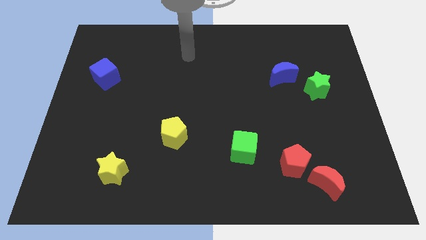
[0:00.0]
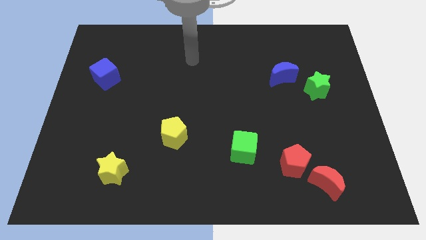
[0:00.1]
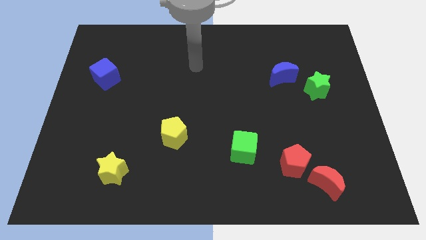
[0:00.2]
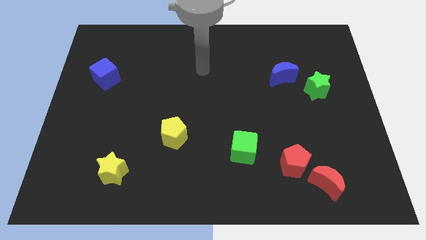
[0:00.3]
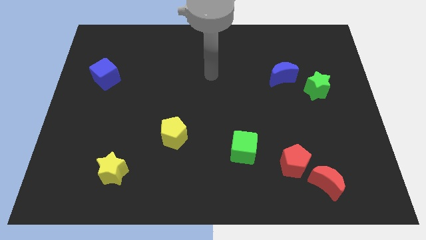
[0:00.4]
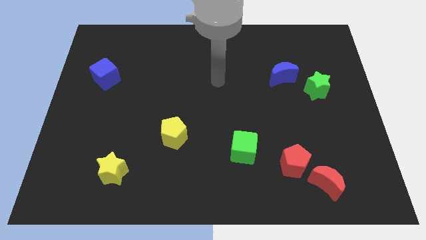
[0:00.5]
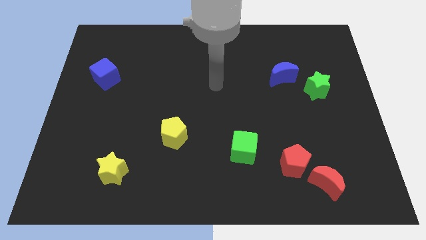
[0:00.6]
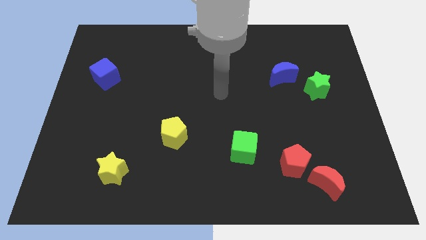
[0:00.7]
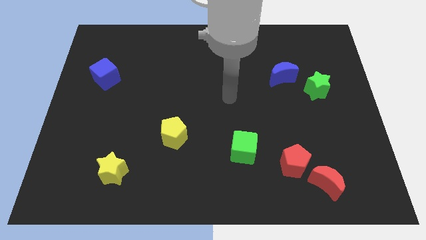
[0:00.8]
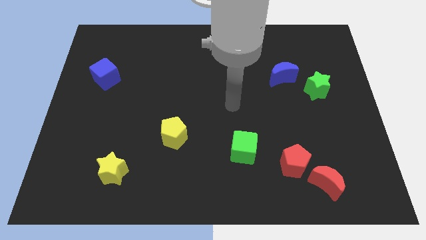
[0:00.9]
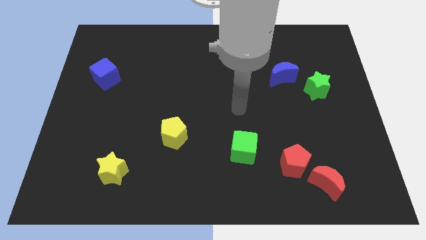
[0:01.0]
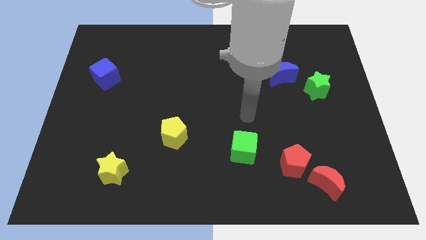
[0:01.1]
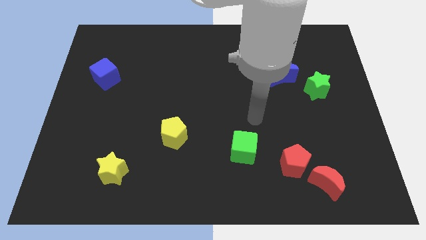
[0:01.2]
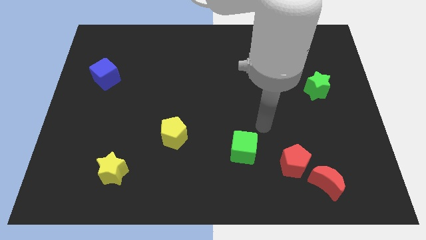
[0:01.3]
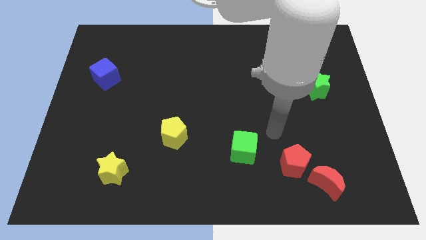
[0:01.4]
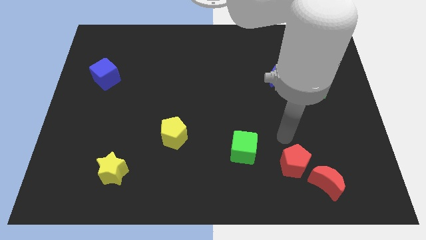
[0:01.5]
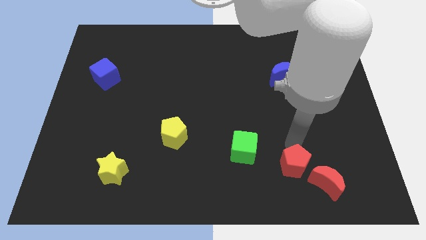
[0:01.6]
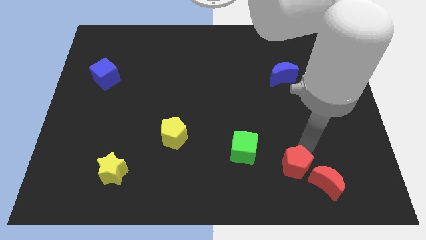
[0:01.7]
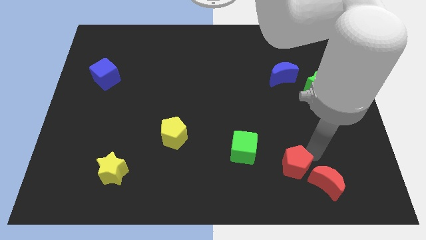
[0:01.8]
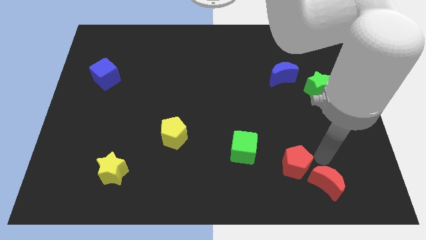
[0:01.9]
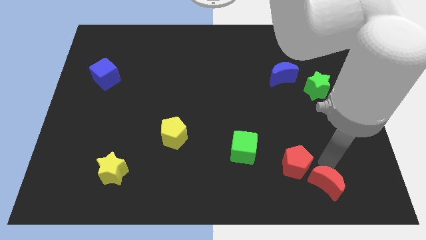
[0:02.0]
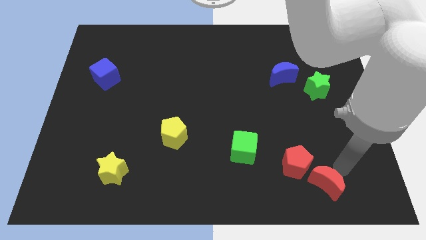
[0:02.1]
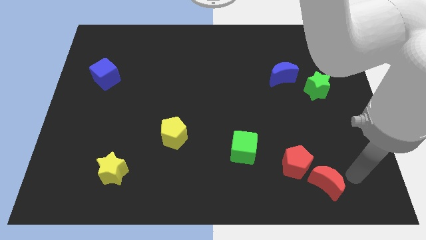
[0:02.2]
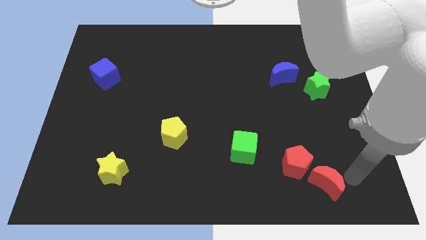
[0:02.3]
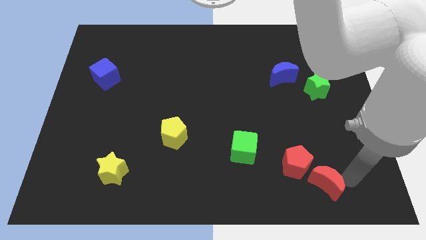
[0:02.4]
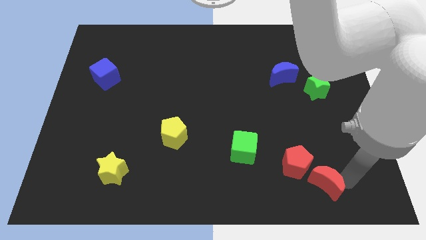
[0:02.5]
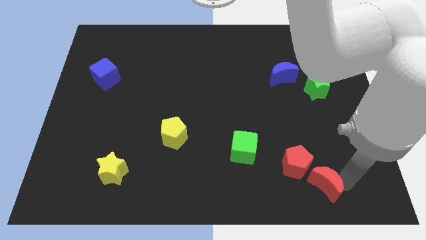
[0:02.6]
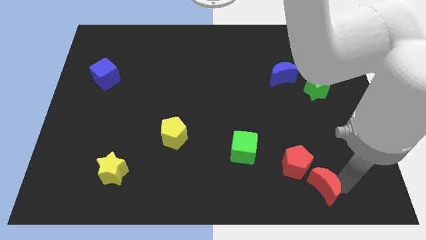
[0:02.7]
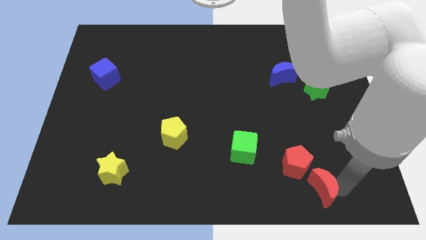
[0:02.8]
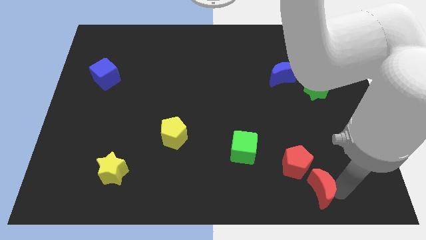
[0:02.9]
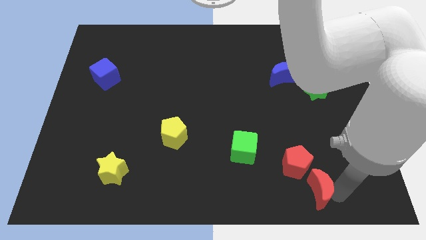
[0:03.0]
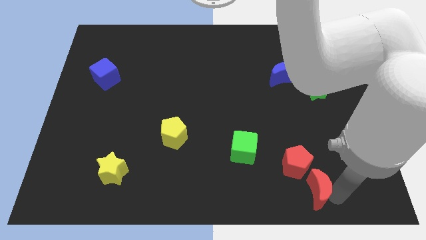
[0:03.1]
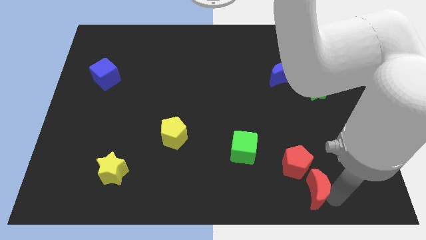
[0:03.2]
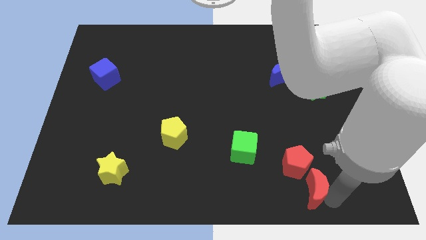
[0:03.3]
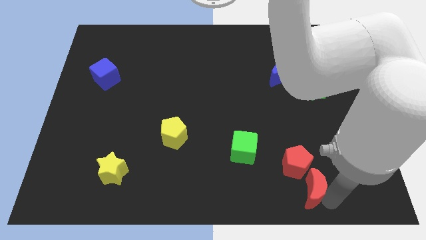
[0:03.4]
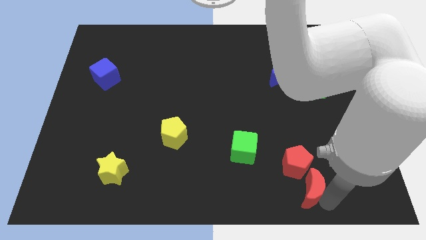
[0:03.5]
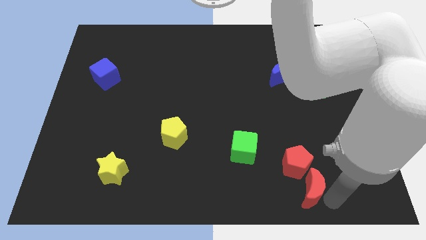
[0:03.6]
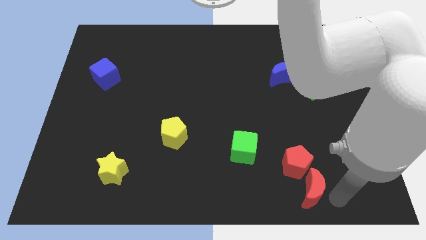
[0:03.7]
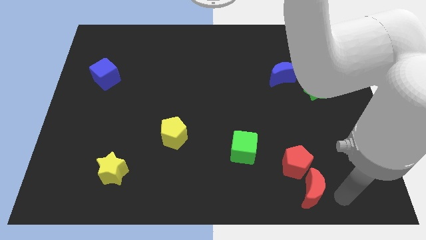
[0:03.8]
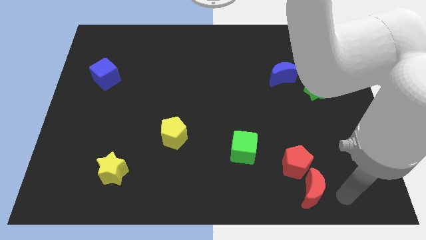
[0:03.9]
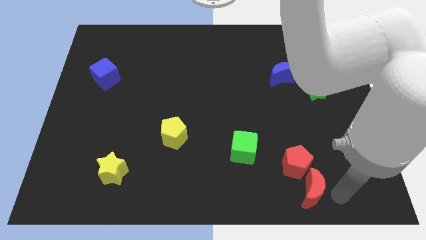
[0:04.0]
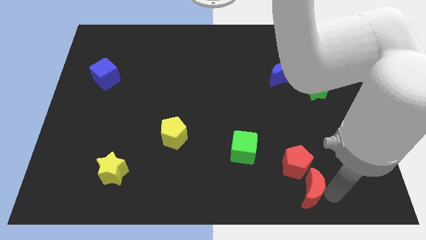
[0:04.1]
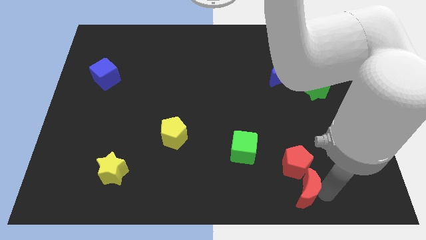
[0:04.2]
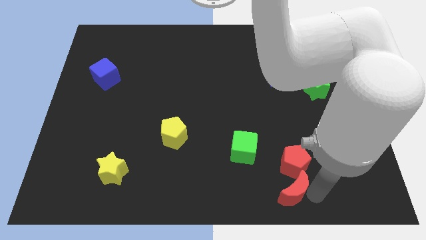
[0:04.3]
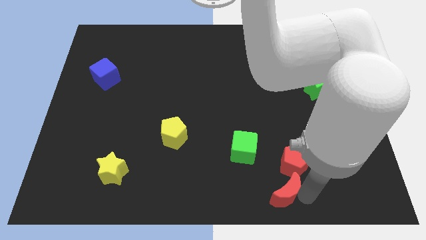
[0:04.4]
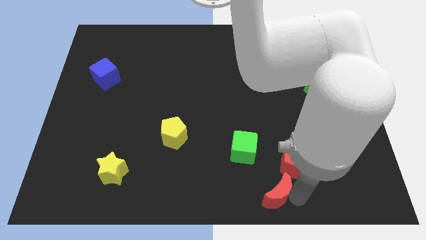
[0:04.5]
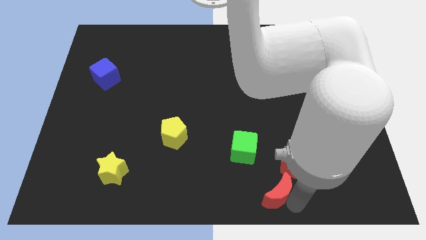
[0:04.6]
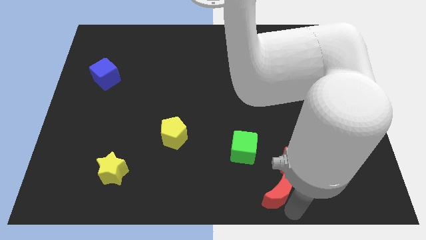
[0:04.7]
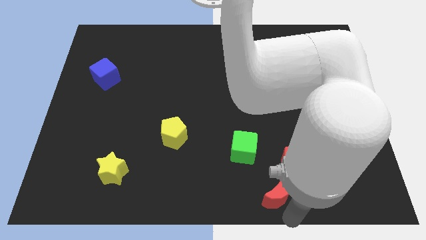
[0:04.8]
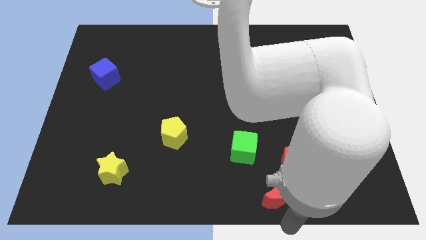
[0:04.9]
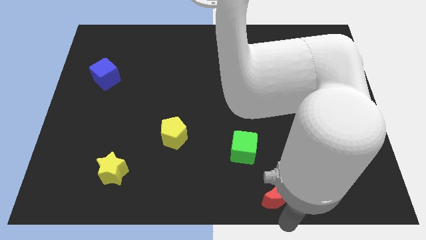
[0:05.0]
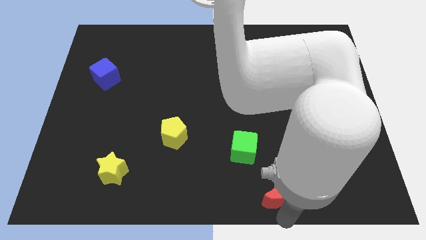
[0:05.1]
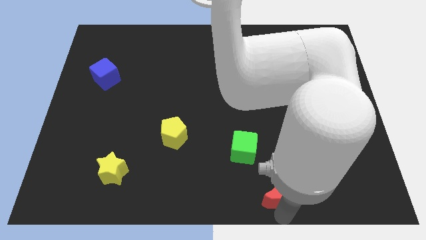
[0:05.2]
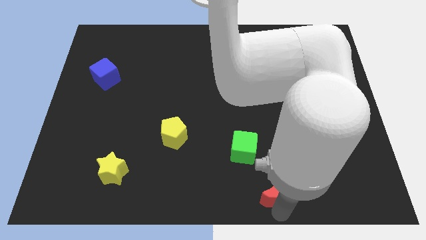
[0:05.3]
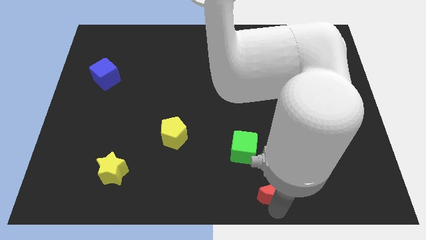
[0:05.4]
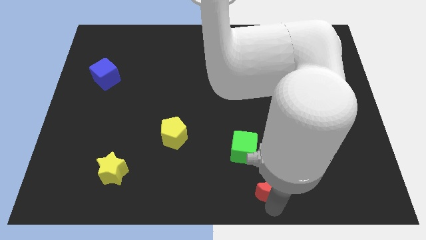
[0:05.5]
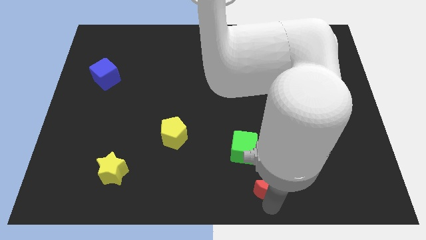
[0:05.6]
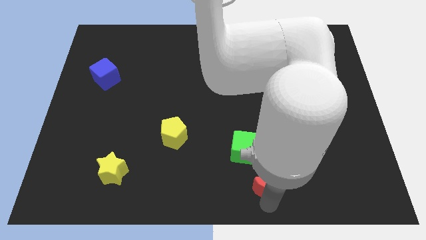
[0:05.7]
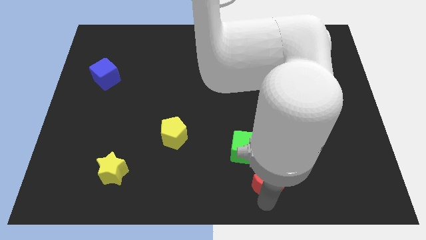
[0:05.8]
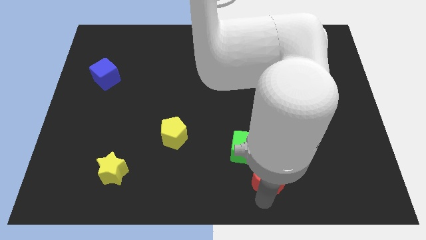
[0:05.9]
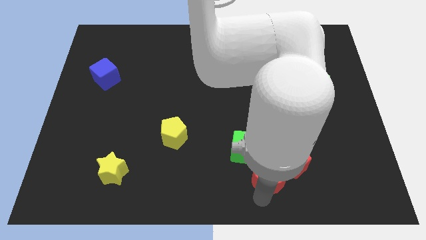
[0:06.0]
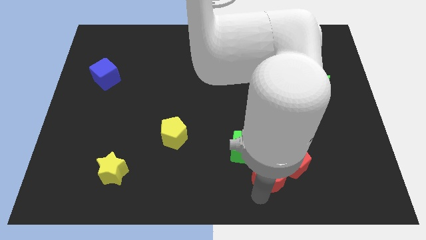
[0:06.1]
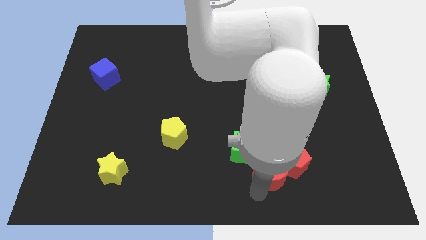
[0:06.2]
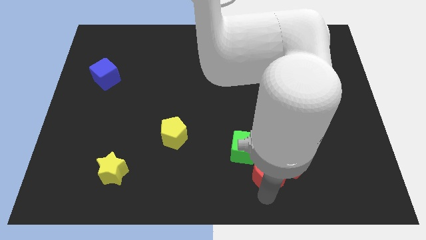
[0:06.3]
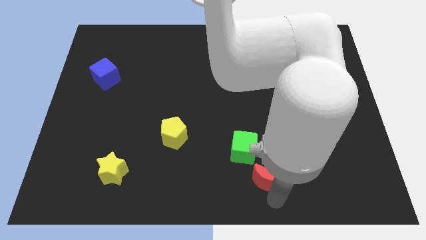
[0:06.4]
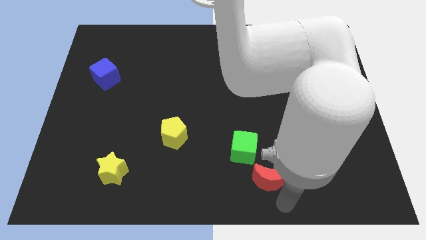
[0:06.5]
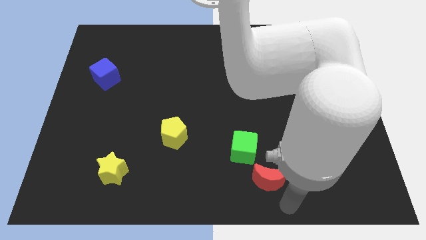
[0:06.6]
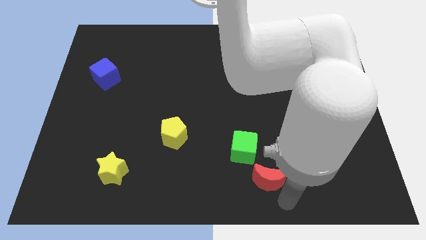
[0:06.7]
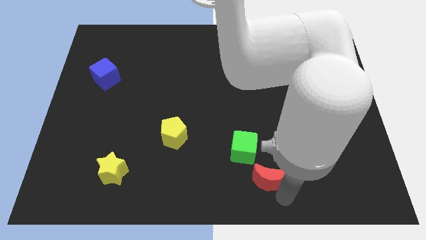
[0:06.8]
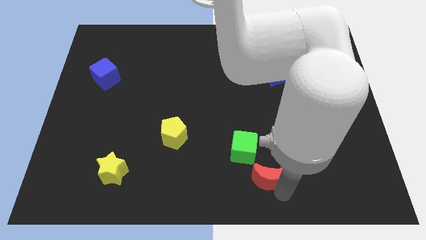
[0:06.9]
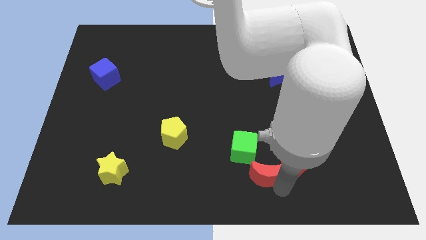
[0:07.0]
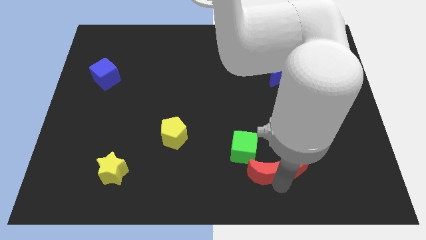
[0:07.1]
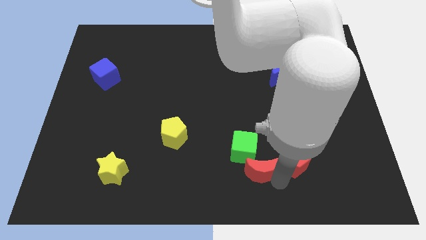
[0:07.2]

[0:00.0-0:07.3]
put the red moon close to the green cube

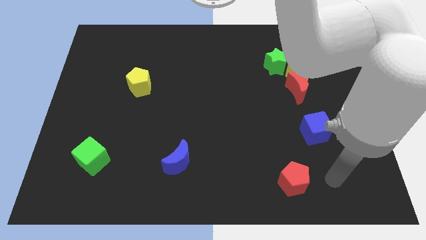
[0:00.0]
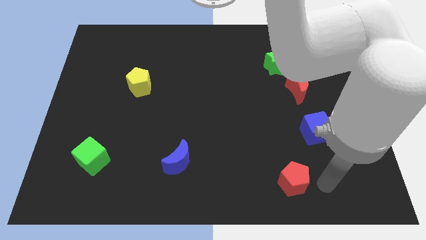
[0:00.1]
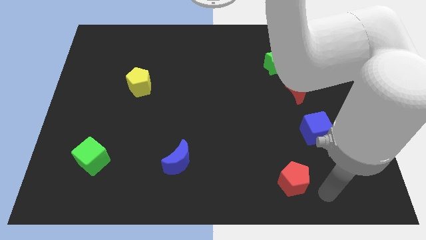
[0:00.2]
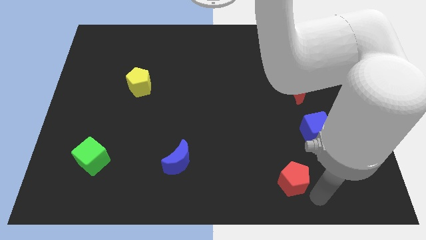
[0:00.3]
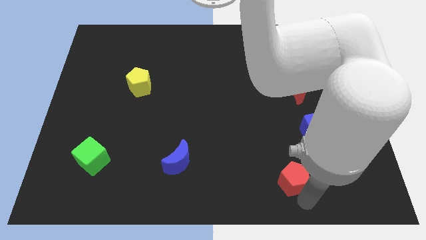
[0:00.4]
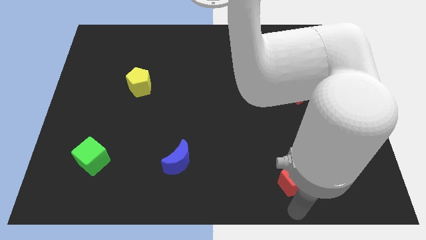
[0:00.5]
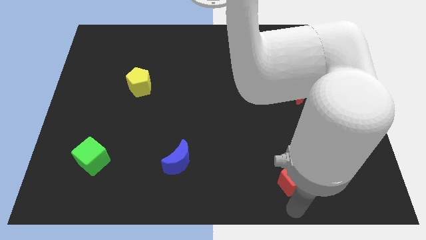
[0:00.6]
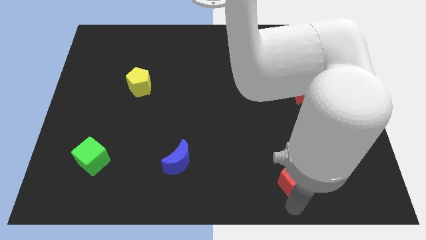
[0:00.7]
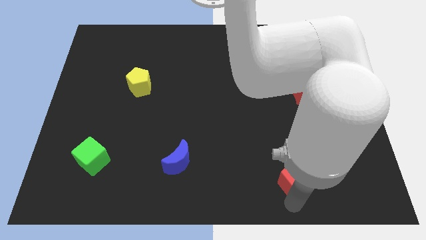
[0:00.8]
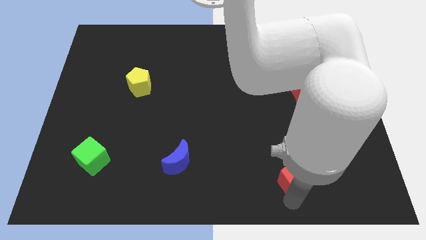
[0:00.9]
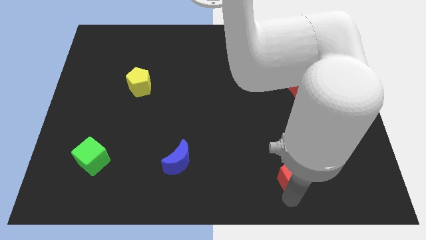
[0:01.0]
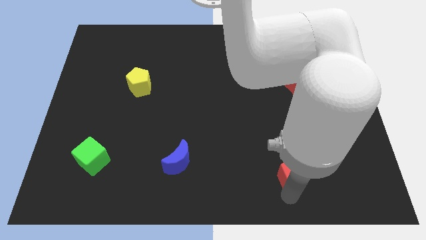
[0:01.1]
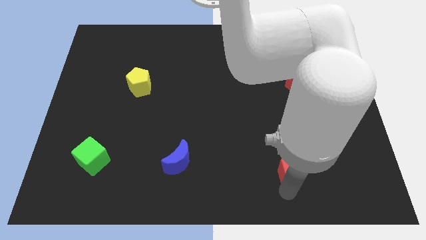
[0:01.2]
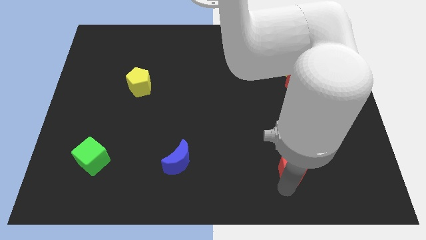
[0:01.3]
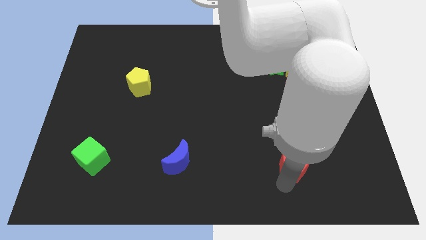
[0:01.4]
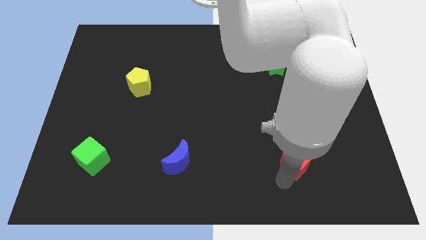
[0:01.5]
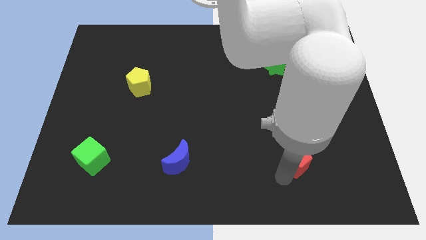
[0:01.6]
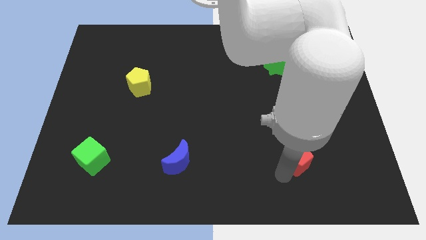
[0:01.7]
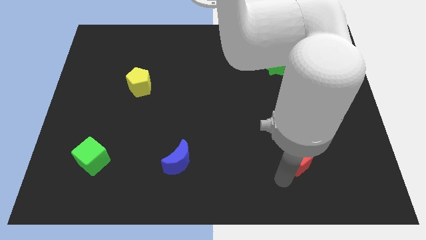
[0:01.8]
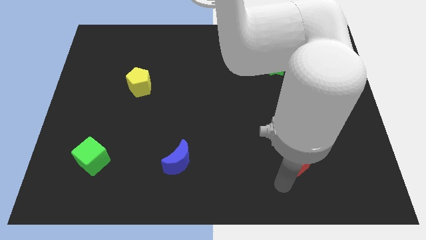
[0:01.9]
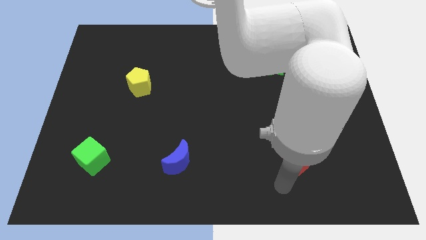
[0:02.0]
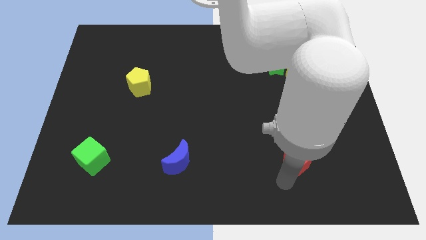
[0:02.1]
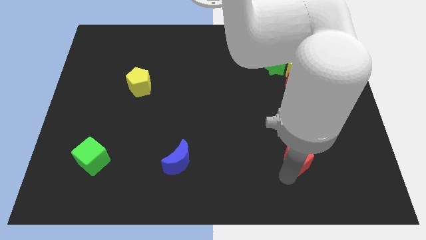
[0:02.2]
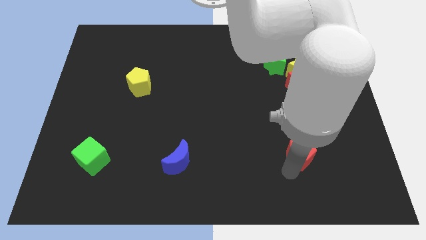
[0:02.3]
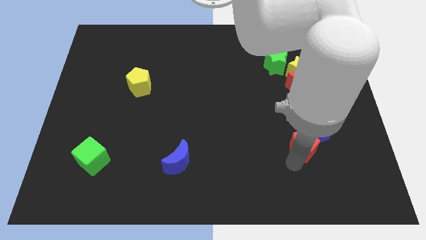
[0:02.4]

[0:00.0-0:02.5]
push the red pentagon towards the blue cube
